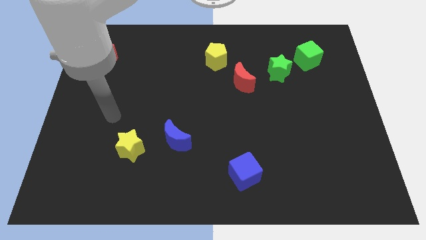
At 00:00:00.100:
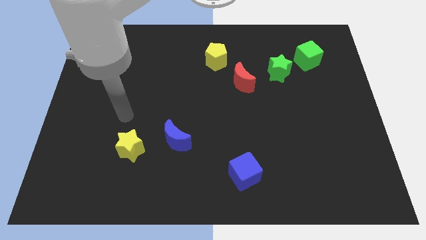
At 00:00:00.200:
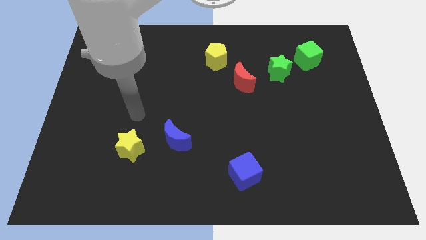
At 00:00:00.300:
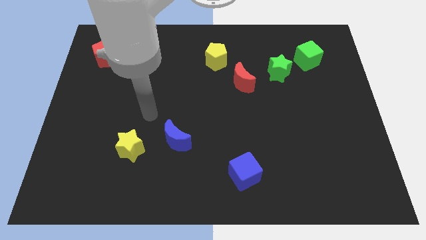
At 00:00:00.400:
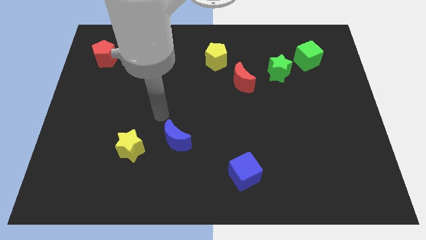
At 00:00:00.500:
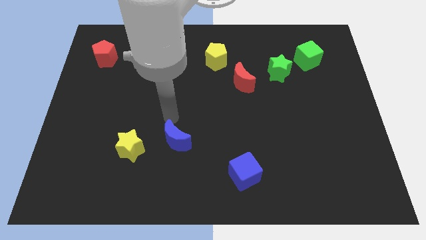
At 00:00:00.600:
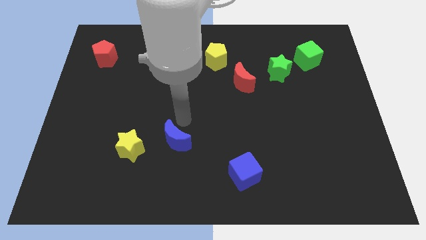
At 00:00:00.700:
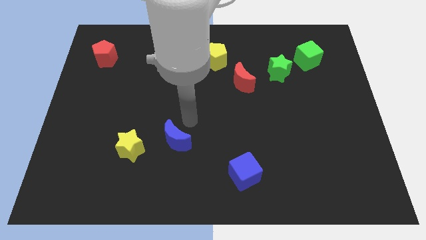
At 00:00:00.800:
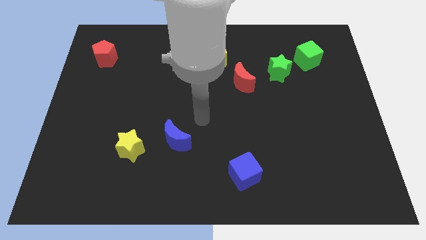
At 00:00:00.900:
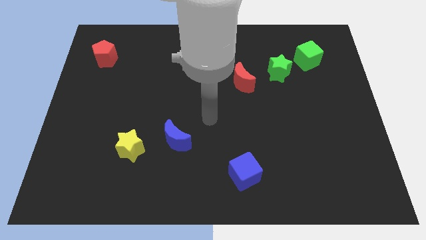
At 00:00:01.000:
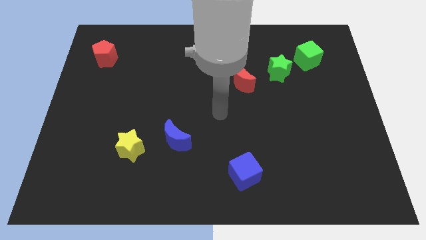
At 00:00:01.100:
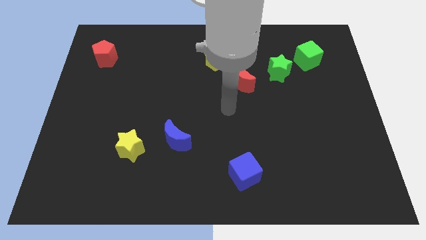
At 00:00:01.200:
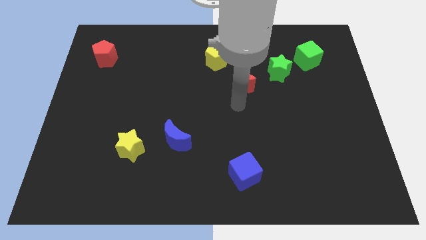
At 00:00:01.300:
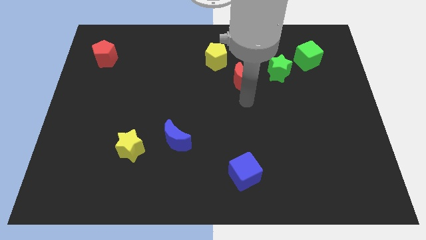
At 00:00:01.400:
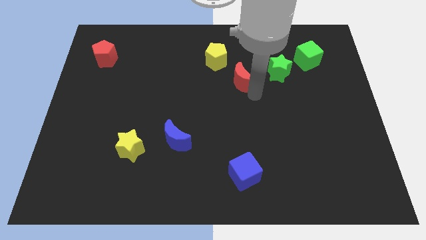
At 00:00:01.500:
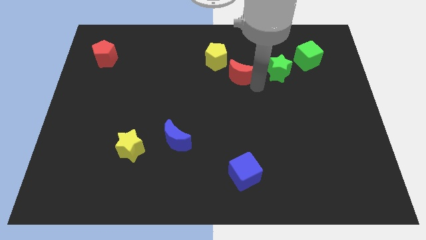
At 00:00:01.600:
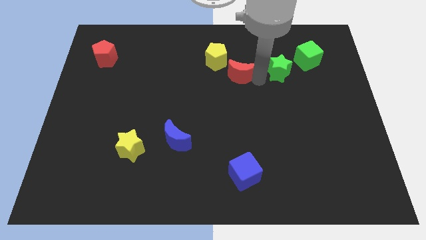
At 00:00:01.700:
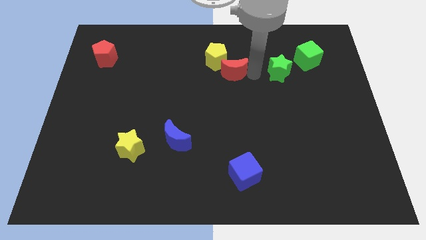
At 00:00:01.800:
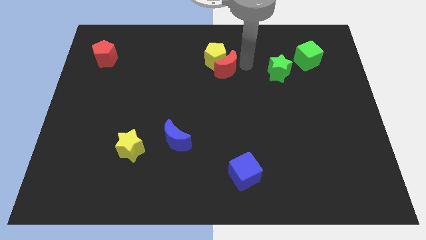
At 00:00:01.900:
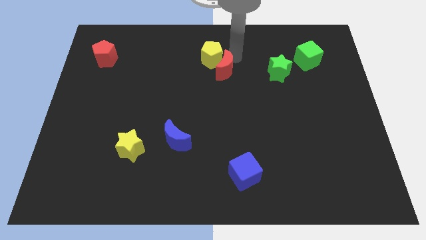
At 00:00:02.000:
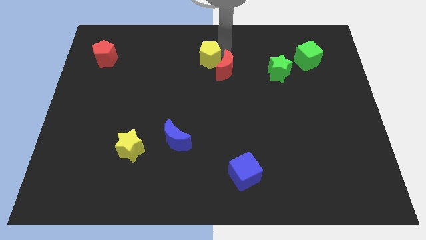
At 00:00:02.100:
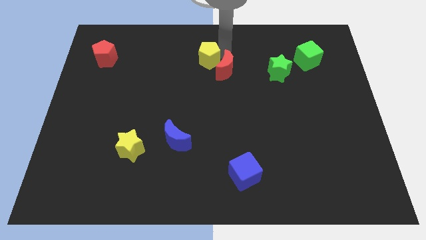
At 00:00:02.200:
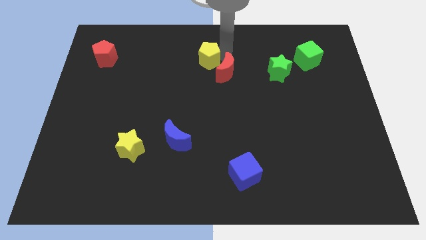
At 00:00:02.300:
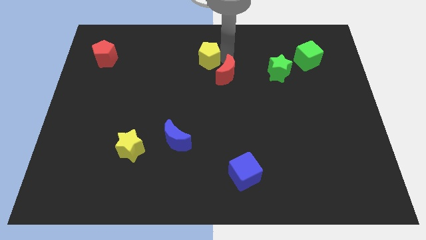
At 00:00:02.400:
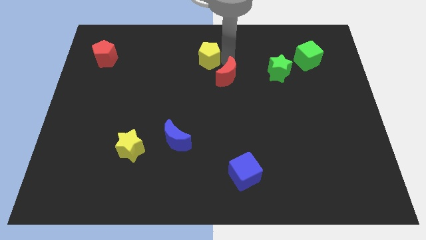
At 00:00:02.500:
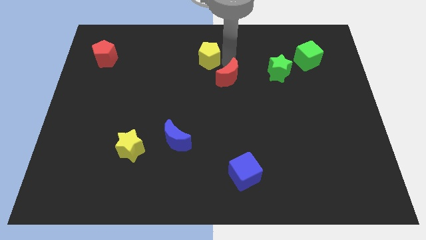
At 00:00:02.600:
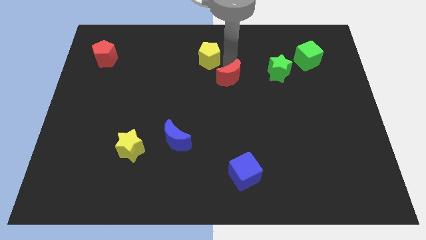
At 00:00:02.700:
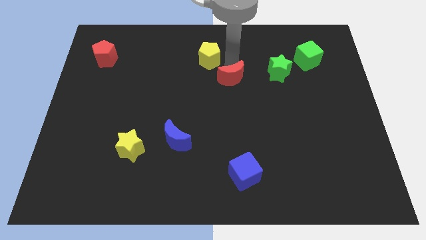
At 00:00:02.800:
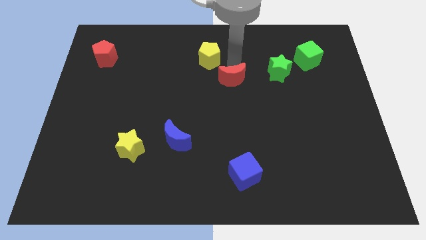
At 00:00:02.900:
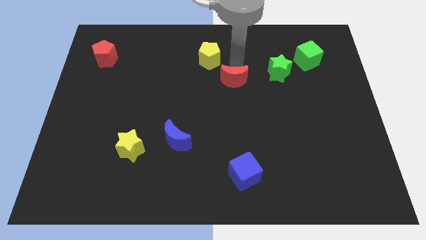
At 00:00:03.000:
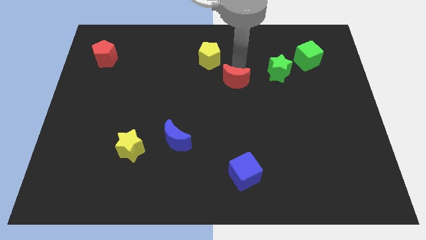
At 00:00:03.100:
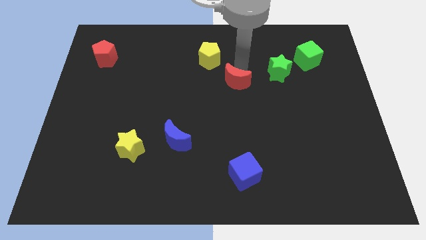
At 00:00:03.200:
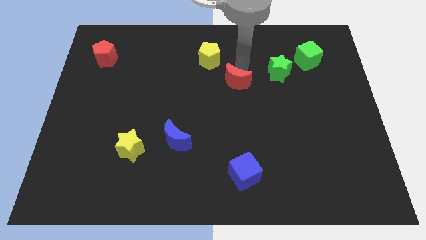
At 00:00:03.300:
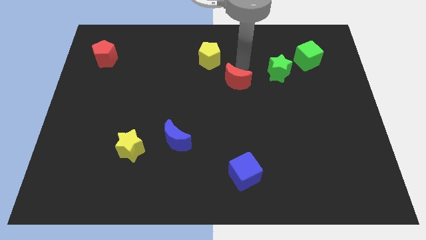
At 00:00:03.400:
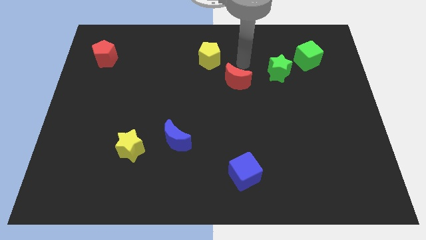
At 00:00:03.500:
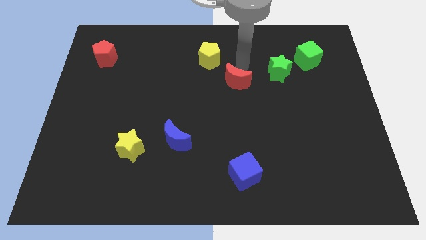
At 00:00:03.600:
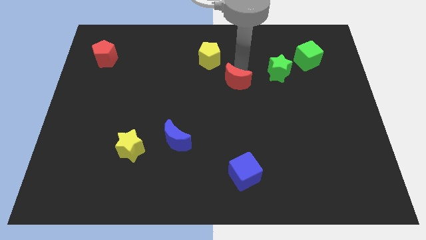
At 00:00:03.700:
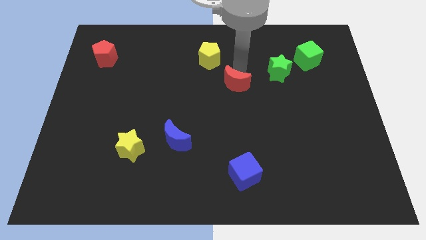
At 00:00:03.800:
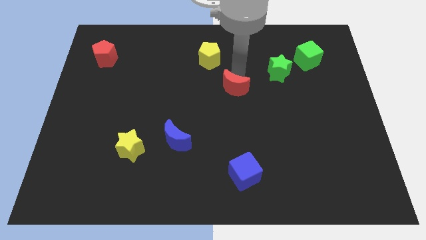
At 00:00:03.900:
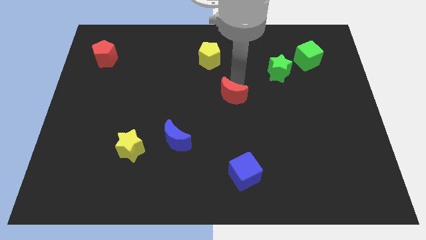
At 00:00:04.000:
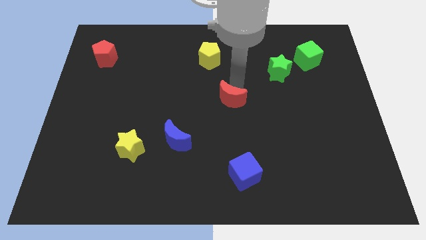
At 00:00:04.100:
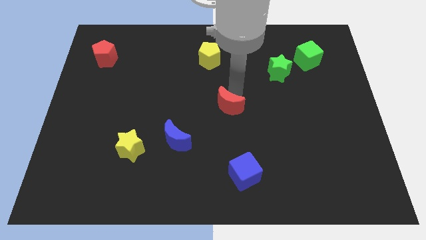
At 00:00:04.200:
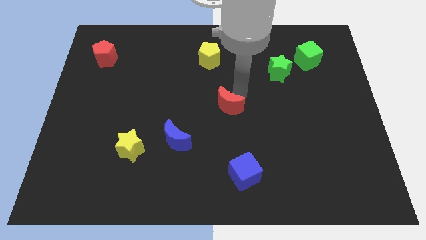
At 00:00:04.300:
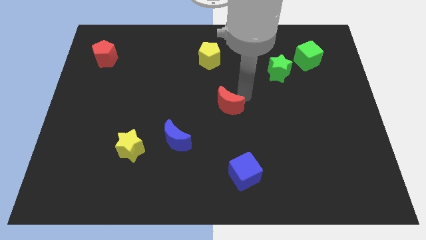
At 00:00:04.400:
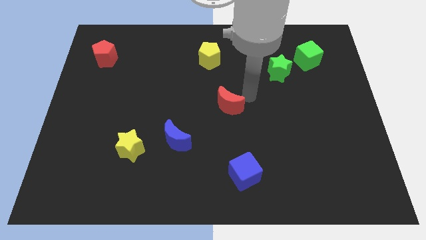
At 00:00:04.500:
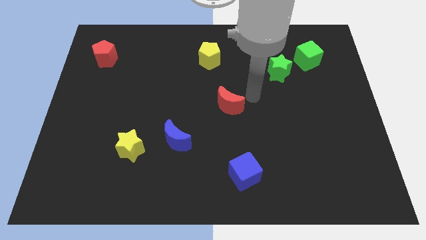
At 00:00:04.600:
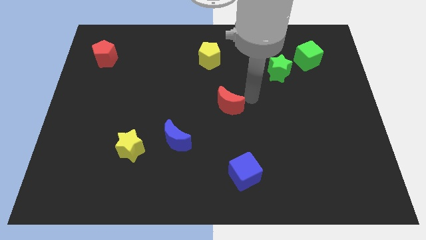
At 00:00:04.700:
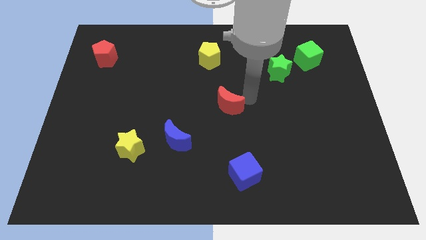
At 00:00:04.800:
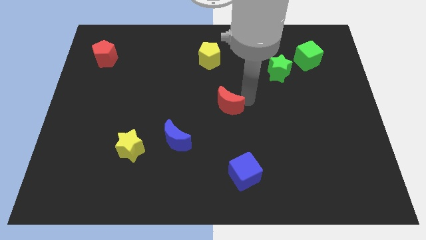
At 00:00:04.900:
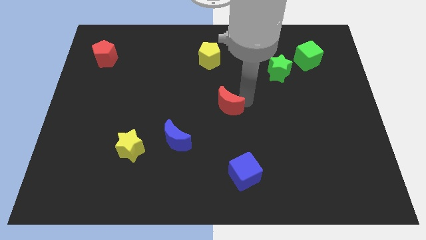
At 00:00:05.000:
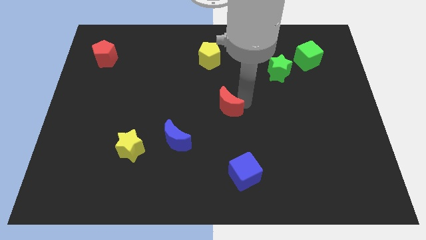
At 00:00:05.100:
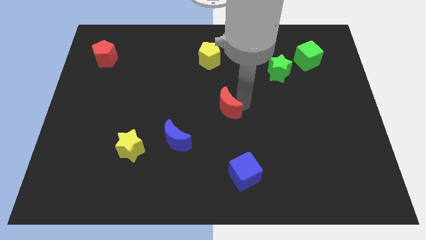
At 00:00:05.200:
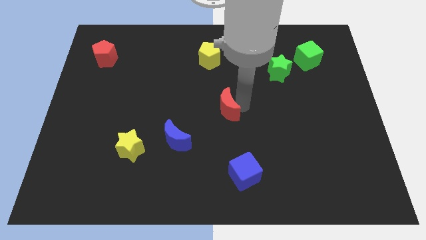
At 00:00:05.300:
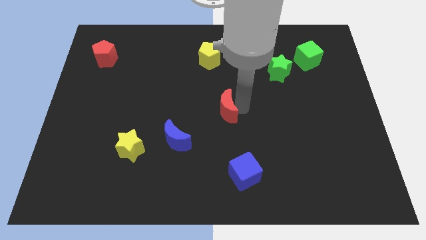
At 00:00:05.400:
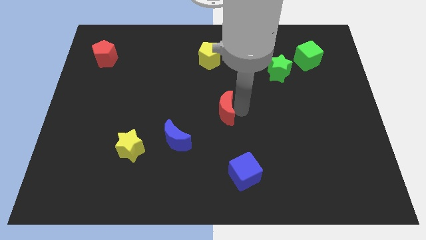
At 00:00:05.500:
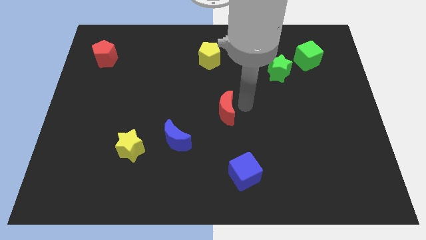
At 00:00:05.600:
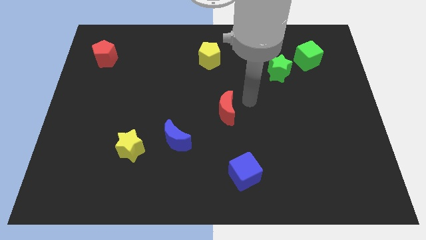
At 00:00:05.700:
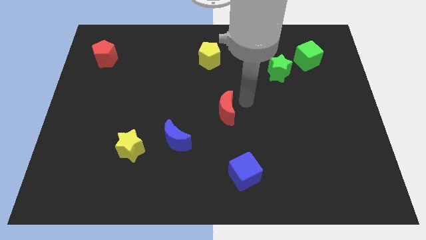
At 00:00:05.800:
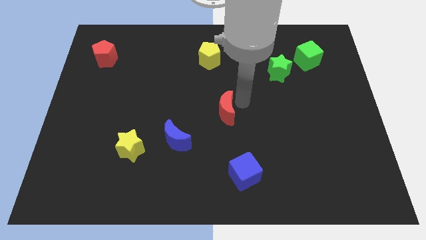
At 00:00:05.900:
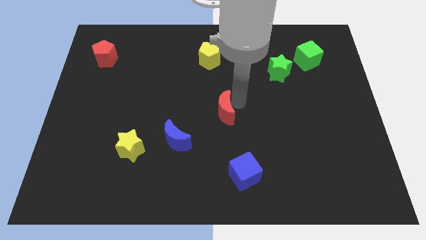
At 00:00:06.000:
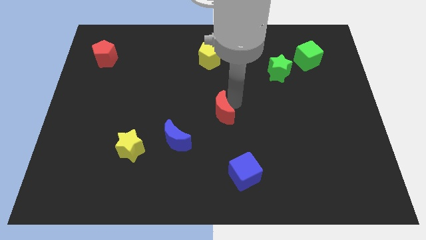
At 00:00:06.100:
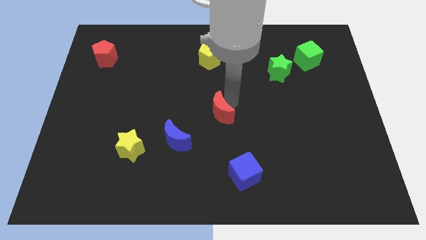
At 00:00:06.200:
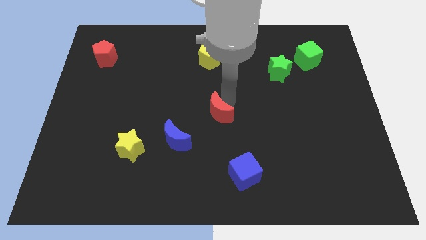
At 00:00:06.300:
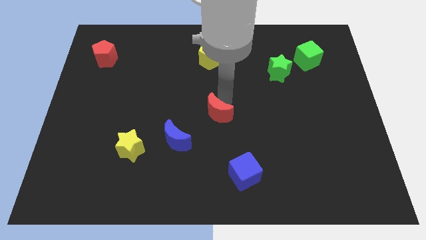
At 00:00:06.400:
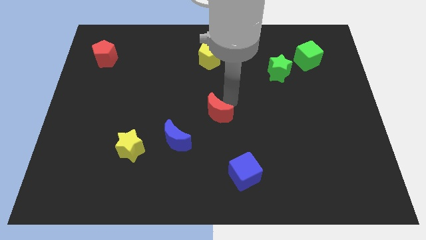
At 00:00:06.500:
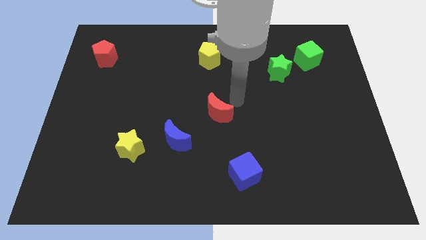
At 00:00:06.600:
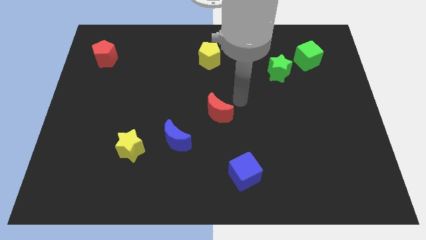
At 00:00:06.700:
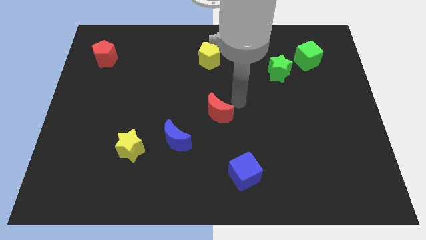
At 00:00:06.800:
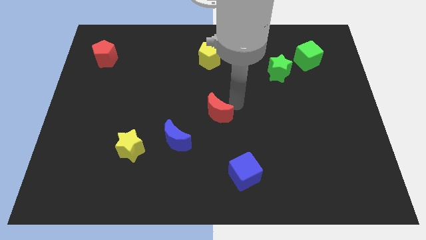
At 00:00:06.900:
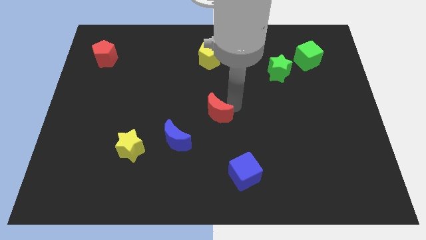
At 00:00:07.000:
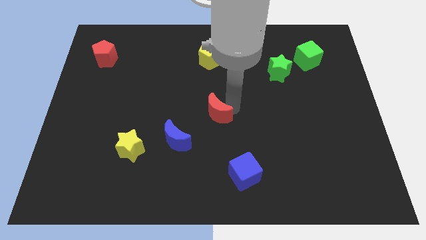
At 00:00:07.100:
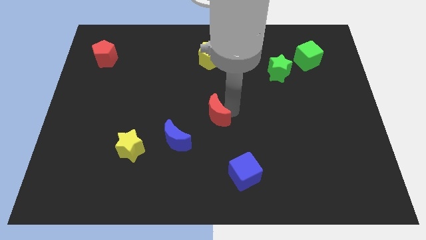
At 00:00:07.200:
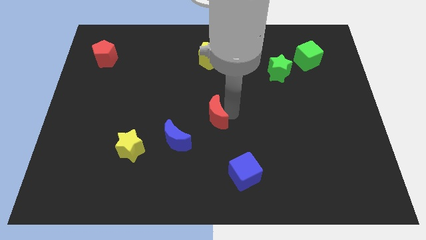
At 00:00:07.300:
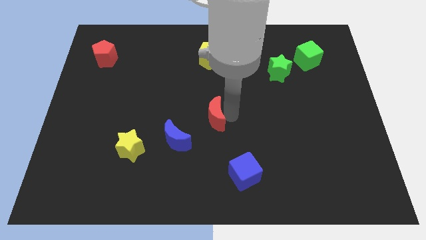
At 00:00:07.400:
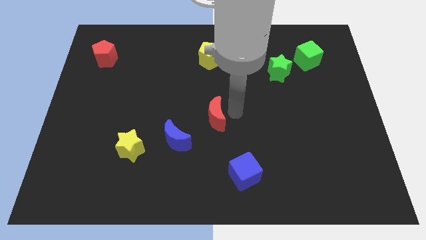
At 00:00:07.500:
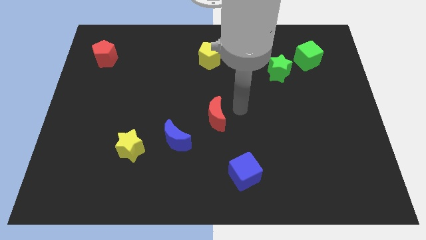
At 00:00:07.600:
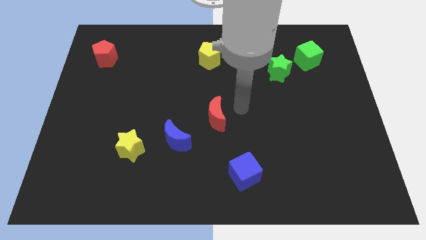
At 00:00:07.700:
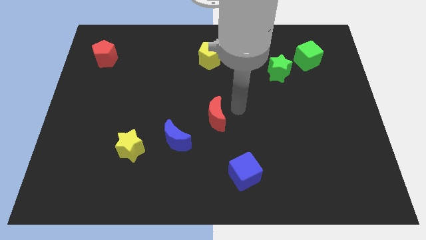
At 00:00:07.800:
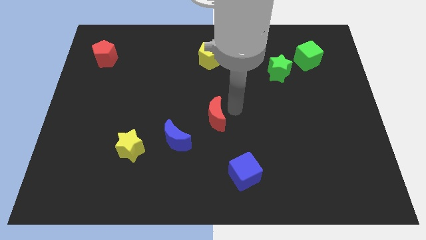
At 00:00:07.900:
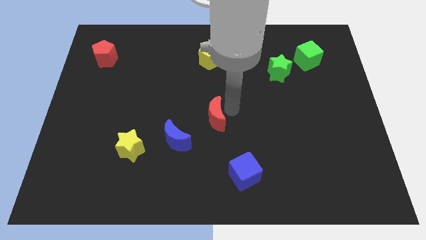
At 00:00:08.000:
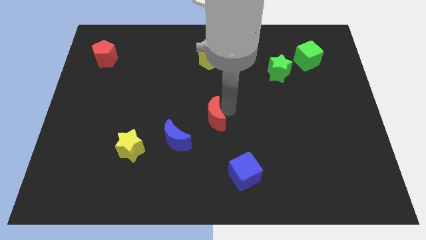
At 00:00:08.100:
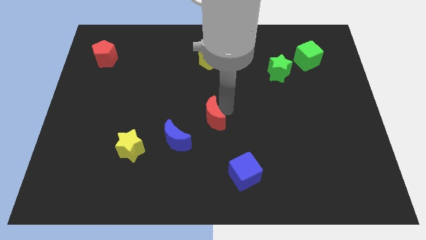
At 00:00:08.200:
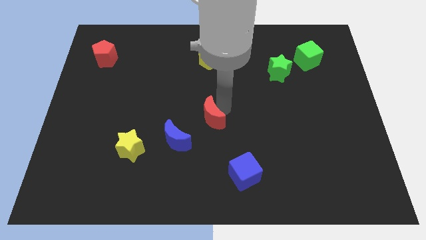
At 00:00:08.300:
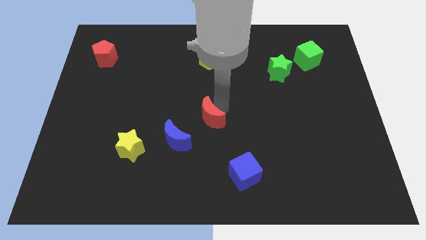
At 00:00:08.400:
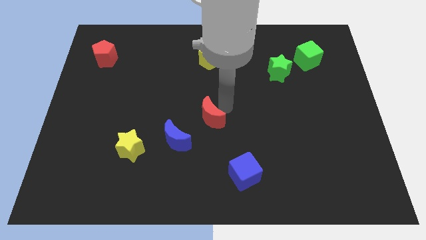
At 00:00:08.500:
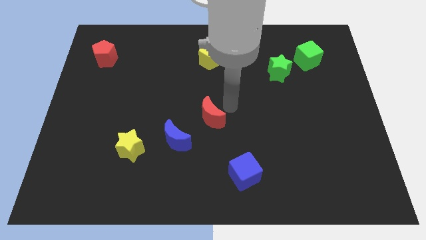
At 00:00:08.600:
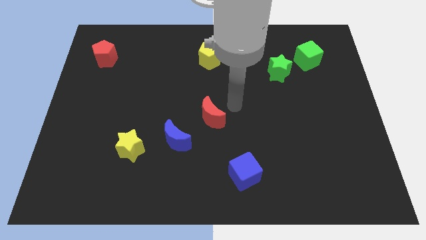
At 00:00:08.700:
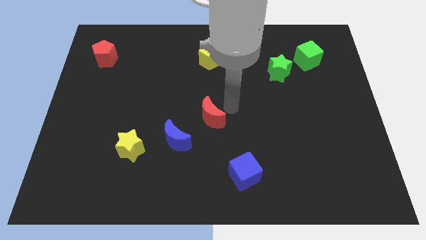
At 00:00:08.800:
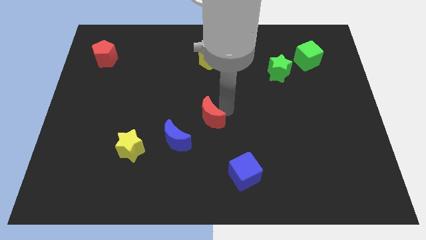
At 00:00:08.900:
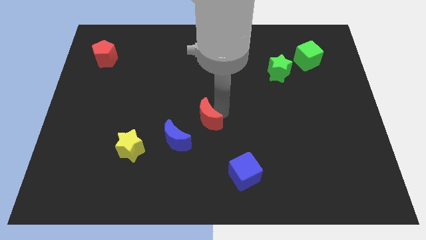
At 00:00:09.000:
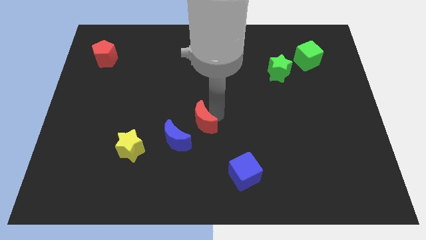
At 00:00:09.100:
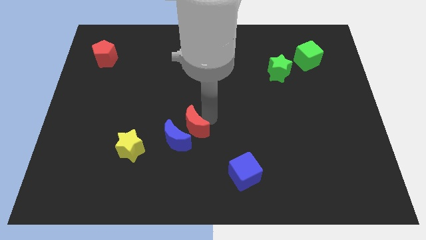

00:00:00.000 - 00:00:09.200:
move the red moon next to the blue moon
